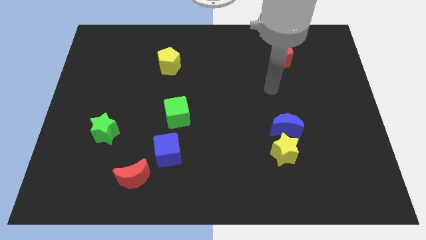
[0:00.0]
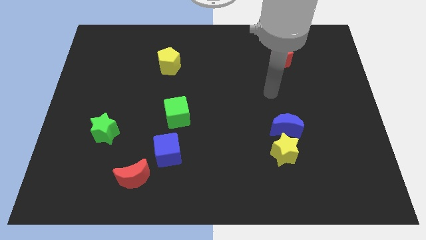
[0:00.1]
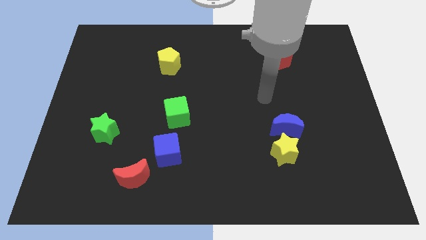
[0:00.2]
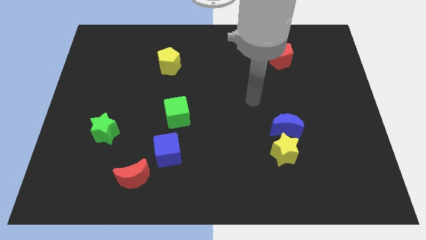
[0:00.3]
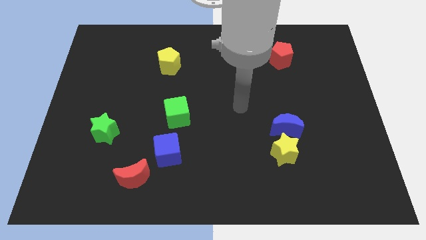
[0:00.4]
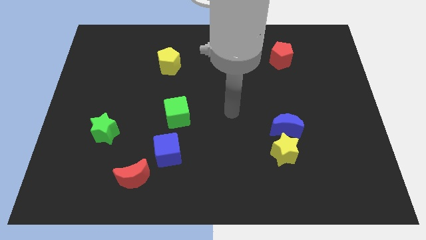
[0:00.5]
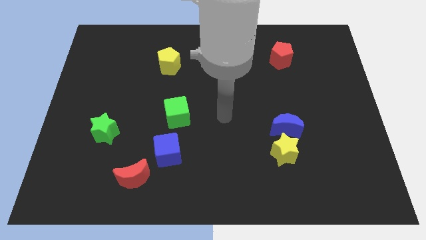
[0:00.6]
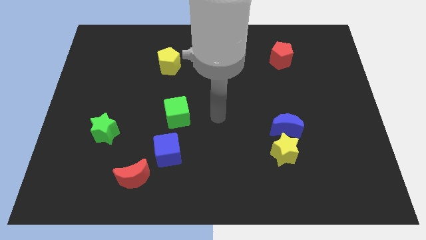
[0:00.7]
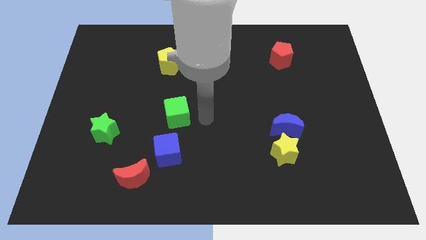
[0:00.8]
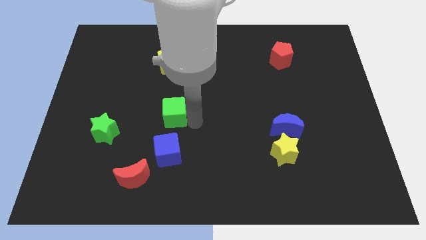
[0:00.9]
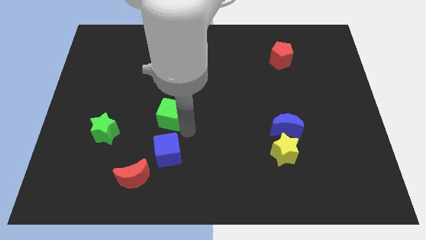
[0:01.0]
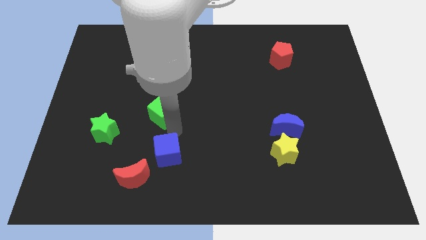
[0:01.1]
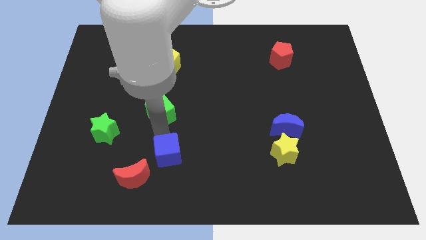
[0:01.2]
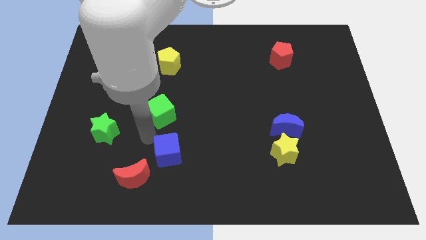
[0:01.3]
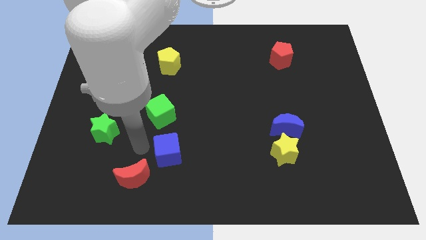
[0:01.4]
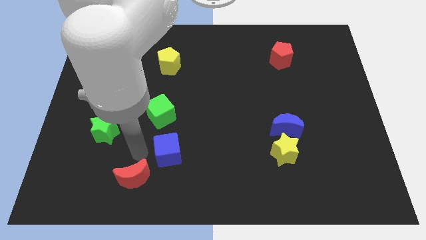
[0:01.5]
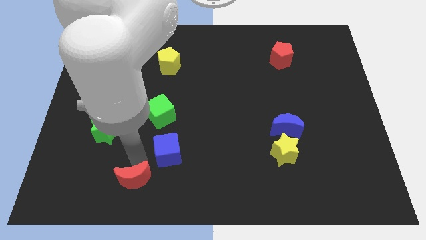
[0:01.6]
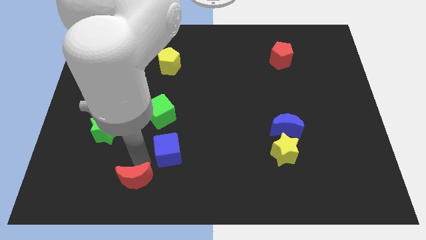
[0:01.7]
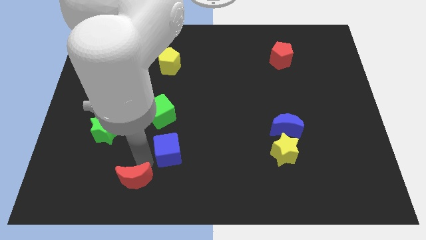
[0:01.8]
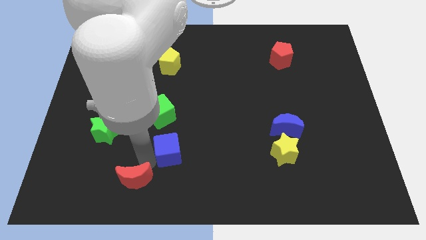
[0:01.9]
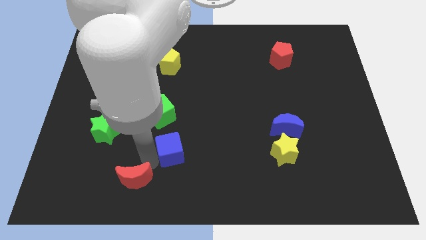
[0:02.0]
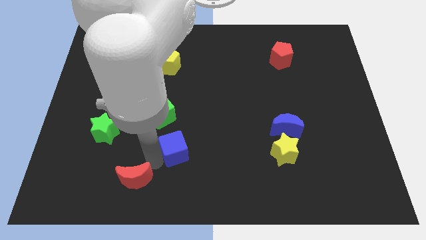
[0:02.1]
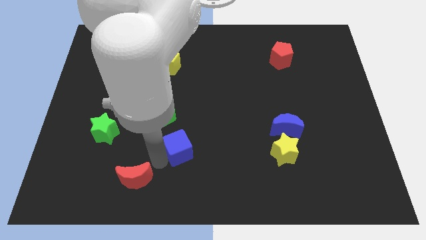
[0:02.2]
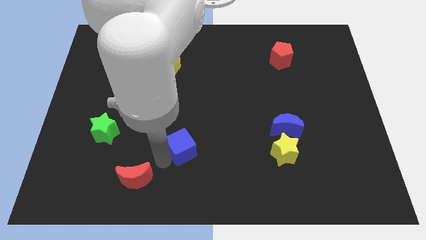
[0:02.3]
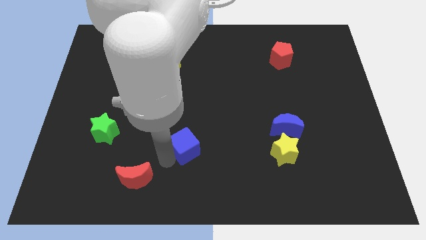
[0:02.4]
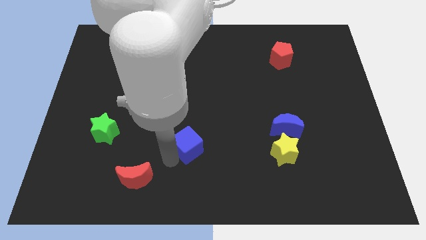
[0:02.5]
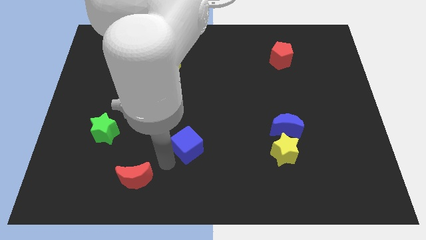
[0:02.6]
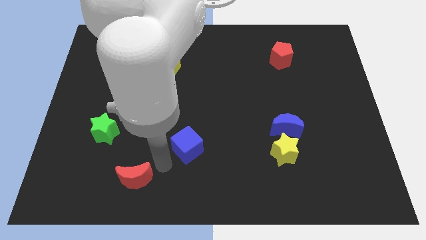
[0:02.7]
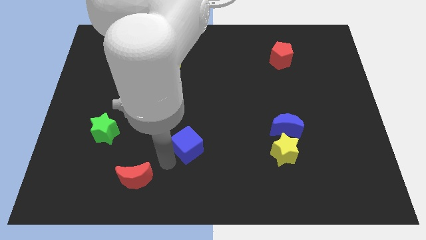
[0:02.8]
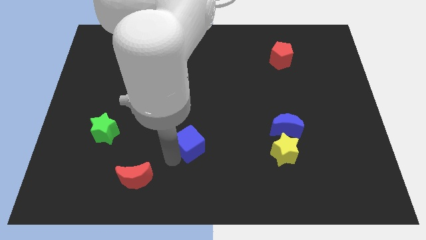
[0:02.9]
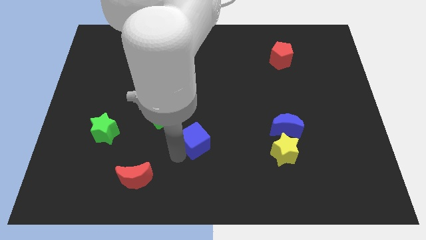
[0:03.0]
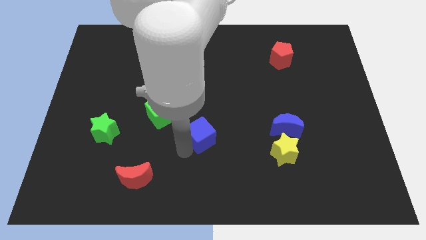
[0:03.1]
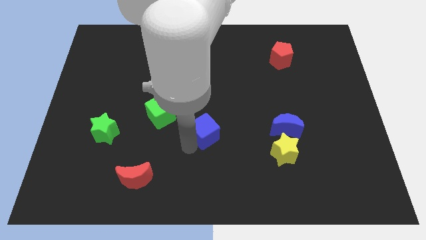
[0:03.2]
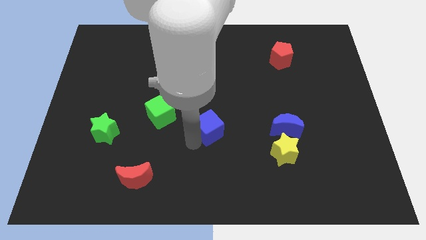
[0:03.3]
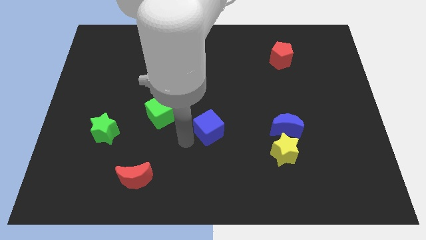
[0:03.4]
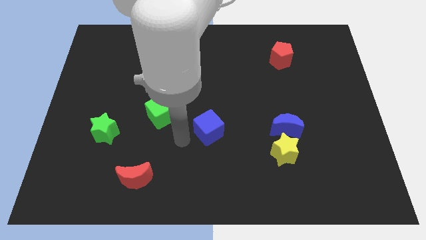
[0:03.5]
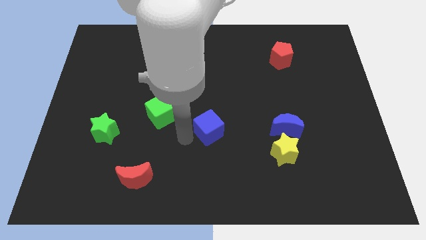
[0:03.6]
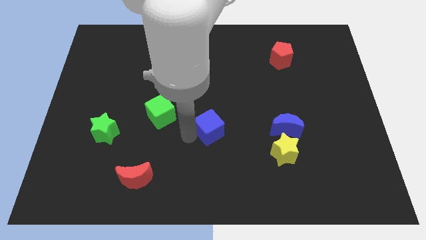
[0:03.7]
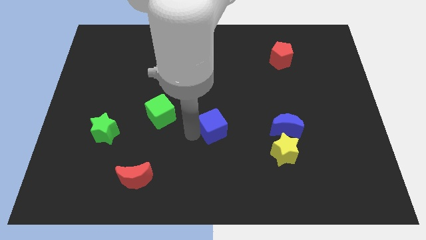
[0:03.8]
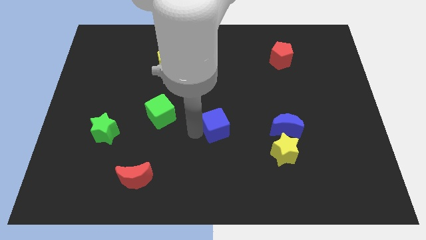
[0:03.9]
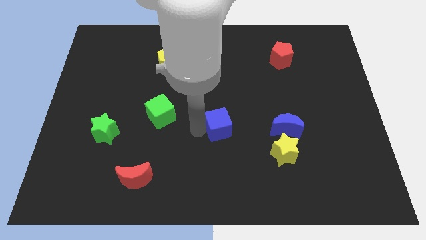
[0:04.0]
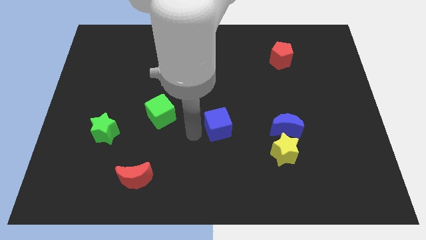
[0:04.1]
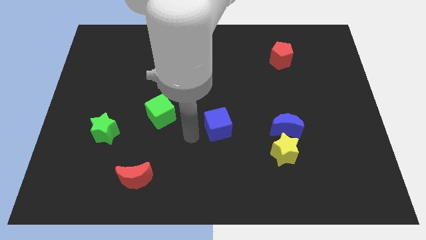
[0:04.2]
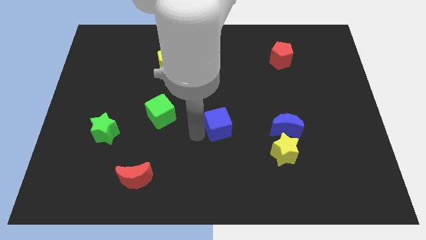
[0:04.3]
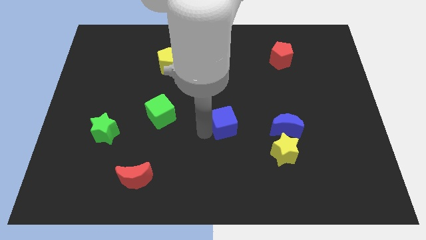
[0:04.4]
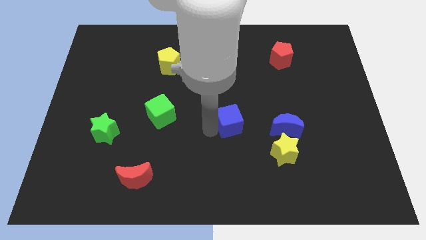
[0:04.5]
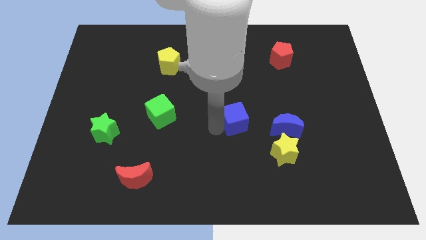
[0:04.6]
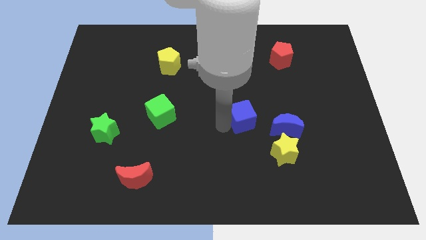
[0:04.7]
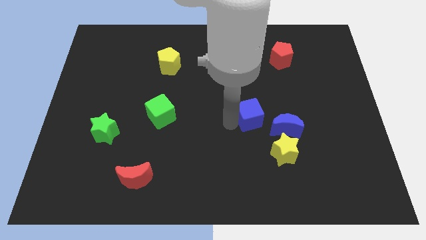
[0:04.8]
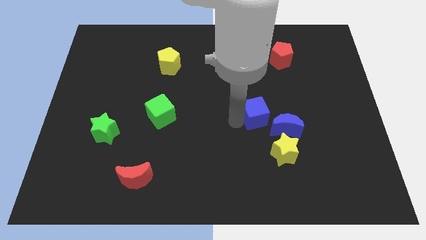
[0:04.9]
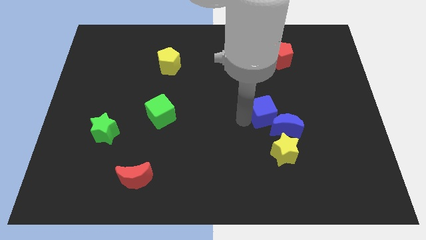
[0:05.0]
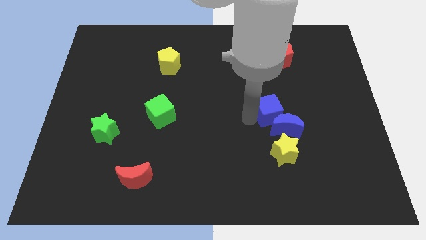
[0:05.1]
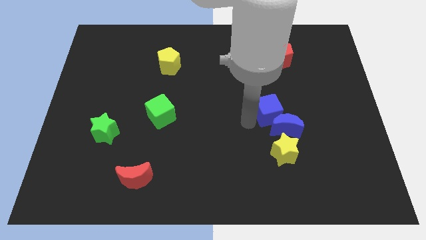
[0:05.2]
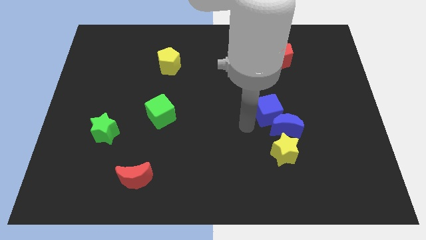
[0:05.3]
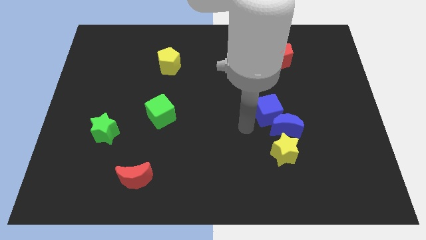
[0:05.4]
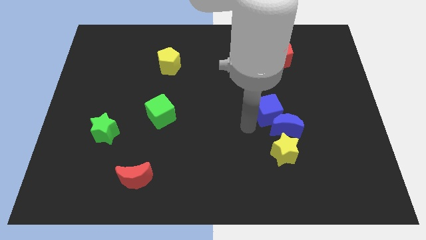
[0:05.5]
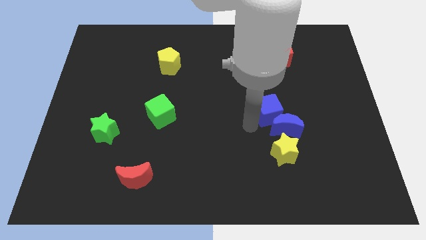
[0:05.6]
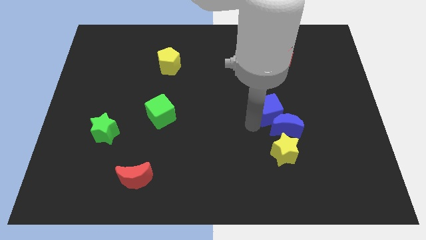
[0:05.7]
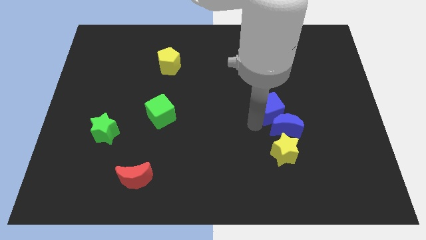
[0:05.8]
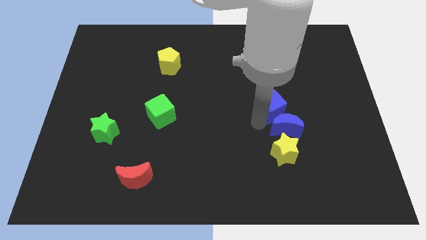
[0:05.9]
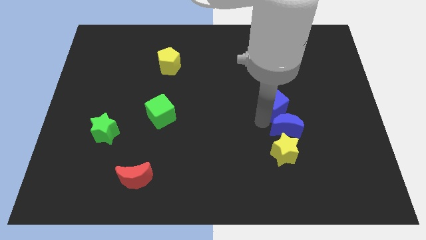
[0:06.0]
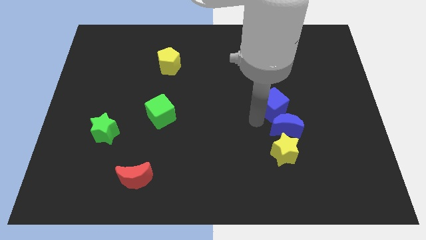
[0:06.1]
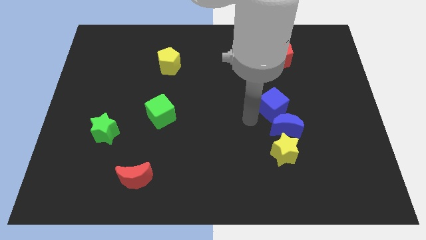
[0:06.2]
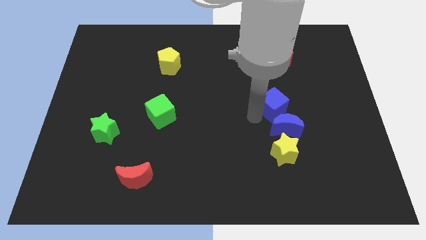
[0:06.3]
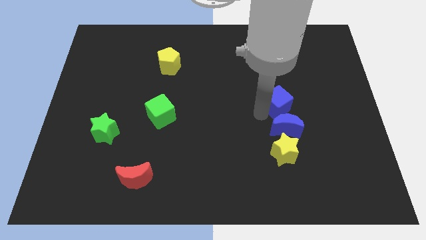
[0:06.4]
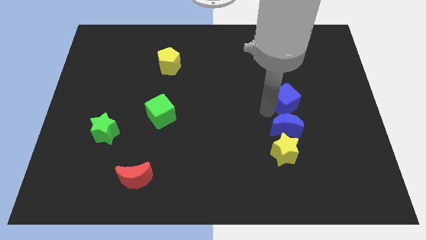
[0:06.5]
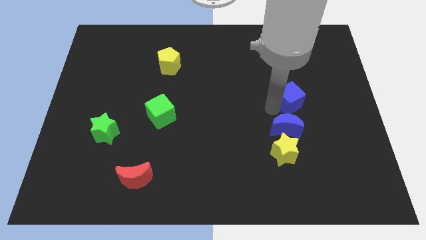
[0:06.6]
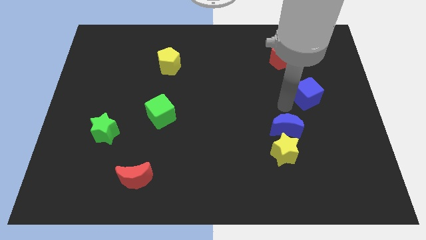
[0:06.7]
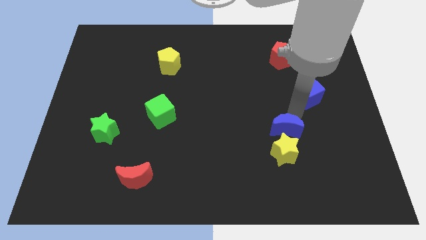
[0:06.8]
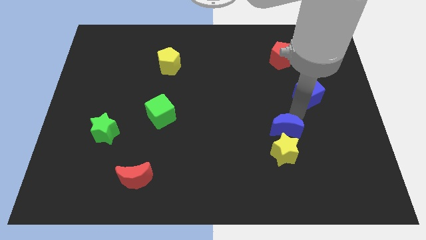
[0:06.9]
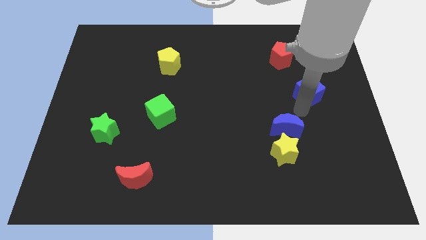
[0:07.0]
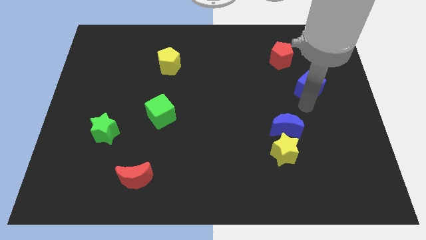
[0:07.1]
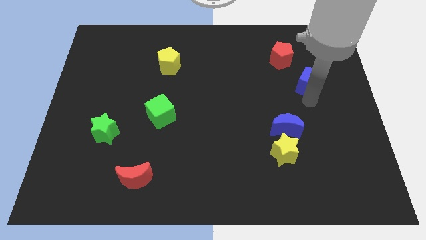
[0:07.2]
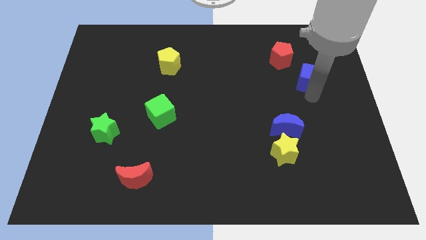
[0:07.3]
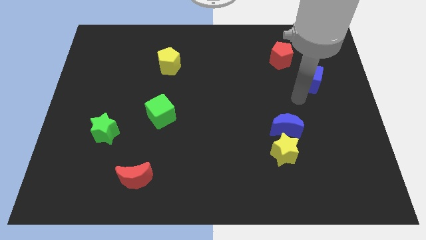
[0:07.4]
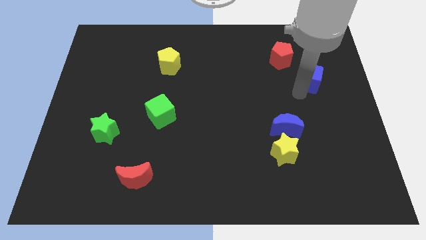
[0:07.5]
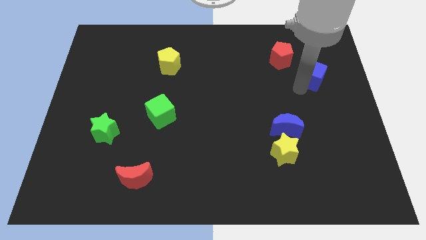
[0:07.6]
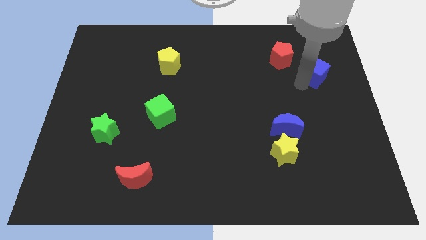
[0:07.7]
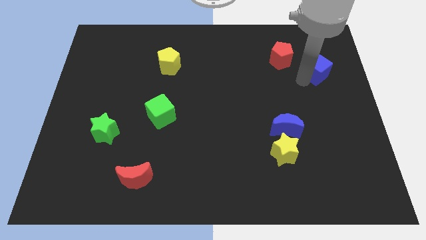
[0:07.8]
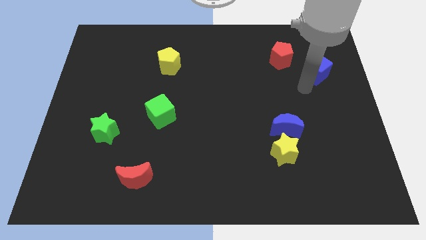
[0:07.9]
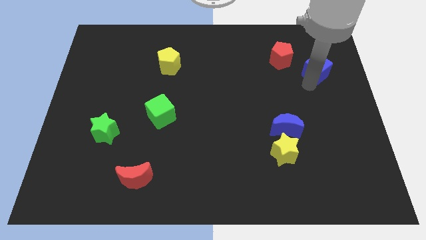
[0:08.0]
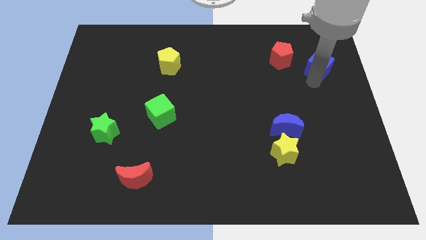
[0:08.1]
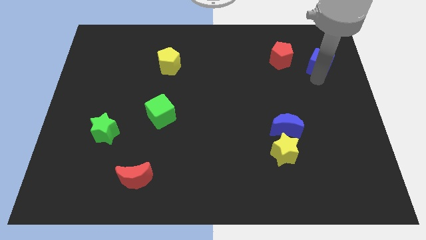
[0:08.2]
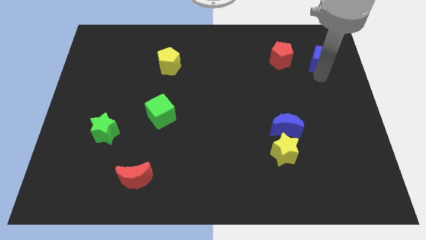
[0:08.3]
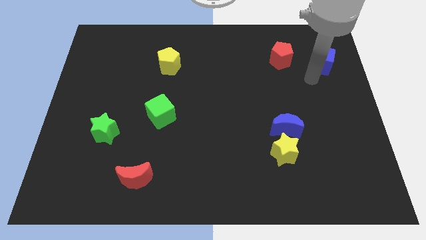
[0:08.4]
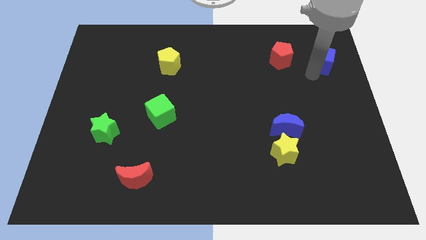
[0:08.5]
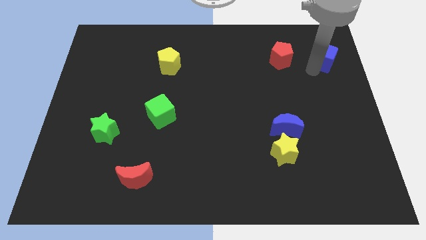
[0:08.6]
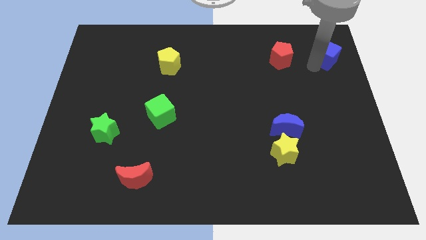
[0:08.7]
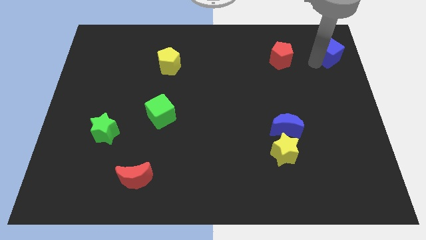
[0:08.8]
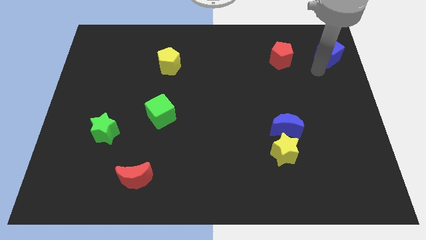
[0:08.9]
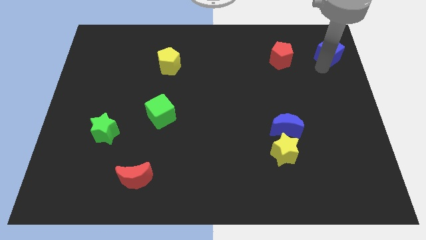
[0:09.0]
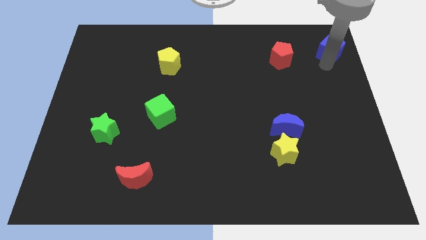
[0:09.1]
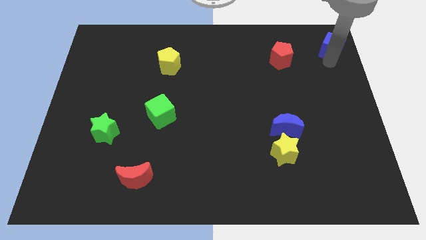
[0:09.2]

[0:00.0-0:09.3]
push the blue cube to the top right of the board
